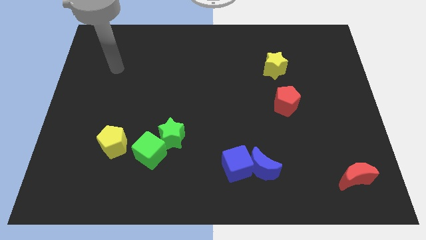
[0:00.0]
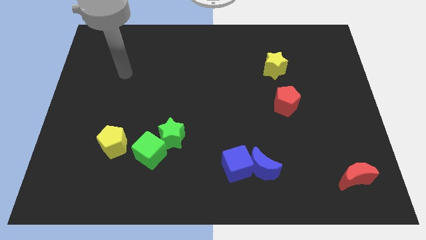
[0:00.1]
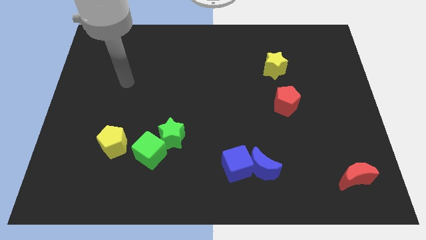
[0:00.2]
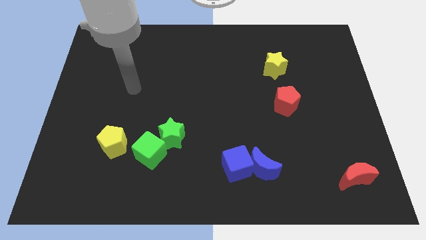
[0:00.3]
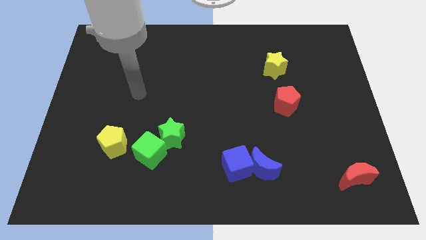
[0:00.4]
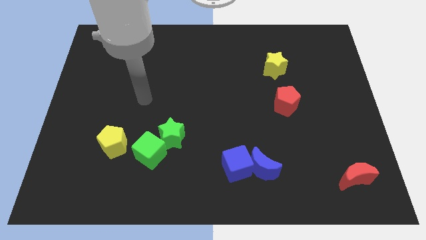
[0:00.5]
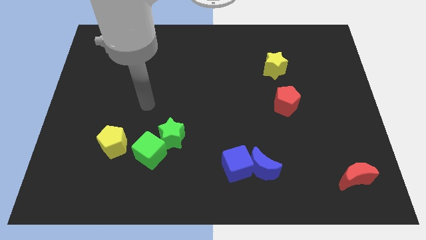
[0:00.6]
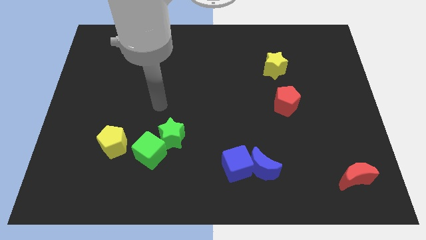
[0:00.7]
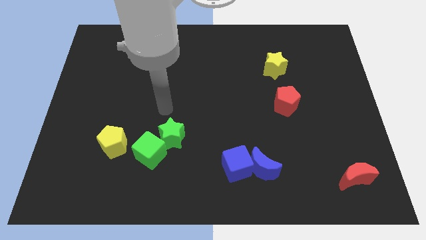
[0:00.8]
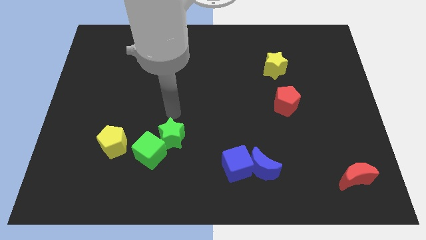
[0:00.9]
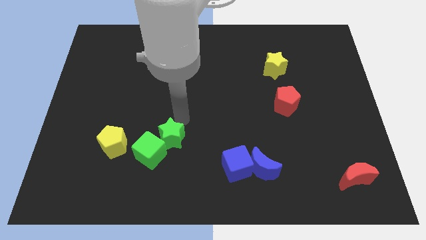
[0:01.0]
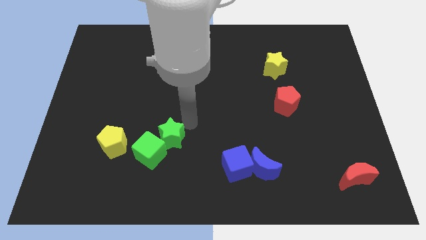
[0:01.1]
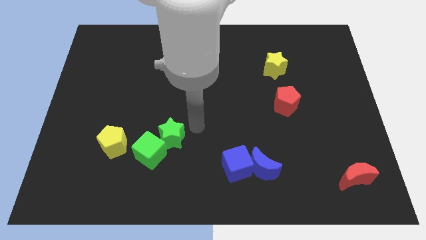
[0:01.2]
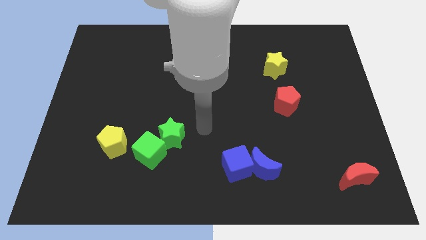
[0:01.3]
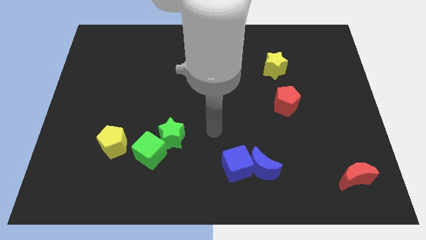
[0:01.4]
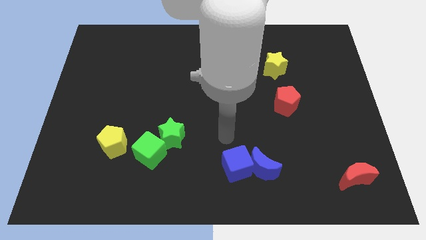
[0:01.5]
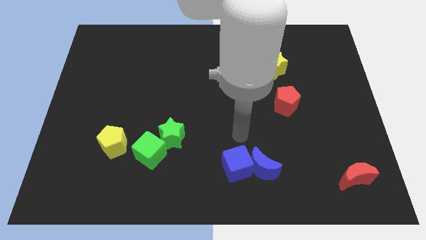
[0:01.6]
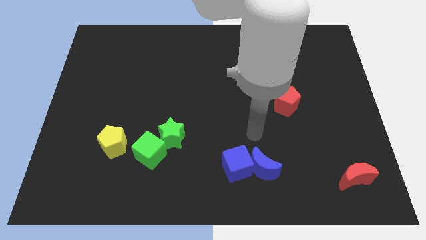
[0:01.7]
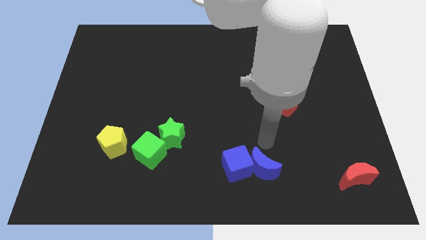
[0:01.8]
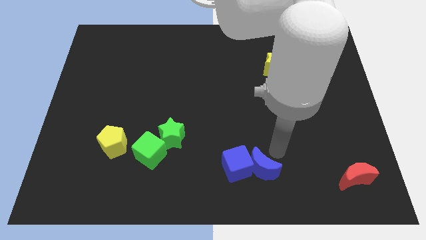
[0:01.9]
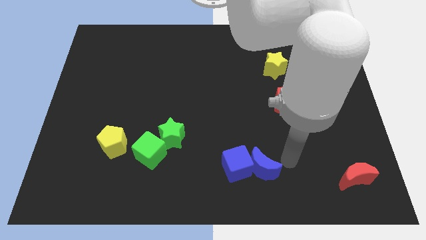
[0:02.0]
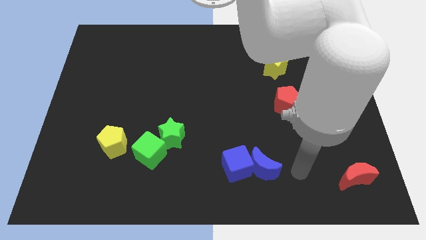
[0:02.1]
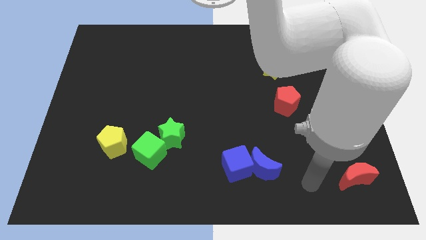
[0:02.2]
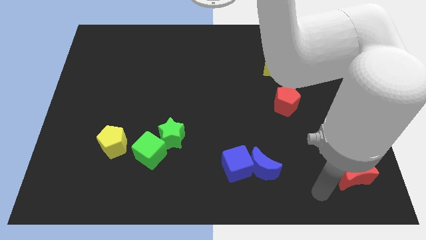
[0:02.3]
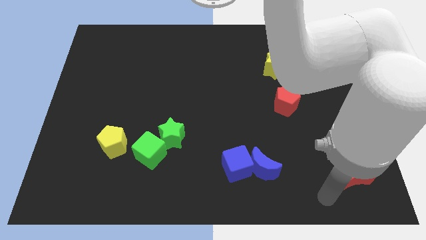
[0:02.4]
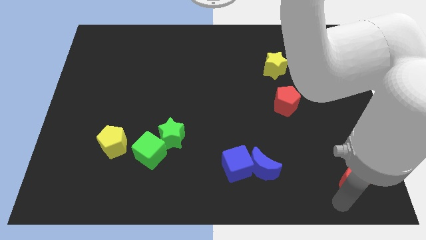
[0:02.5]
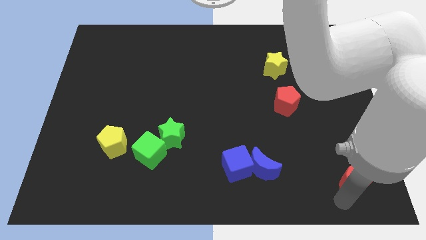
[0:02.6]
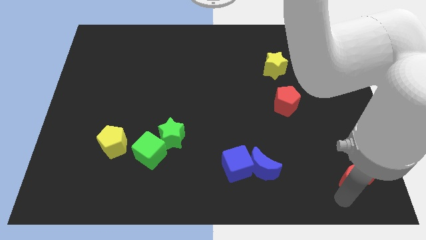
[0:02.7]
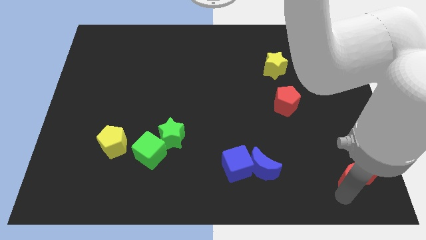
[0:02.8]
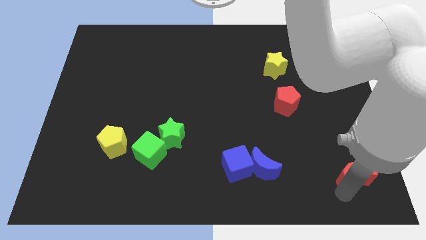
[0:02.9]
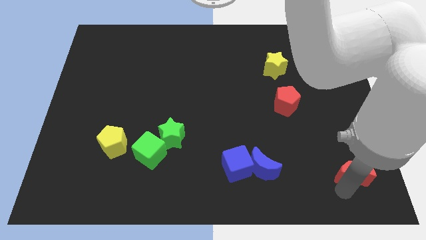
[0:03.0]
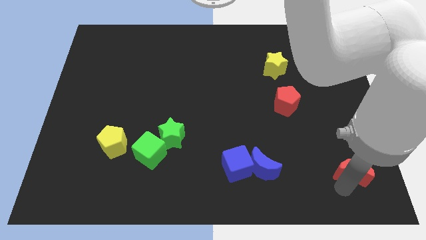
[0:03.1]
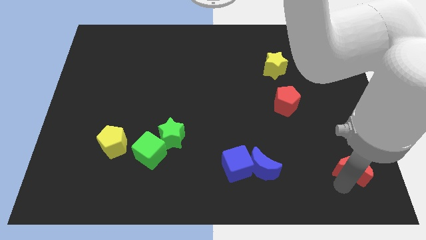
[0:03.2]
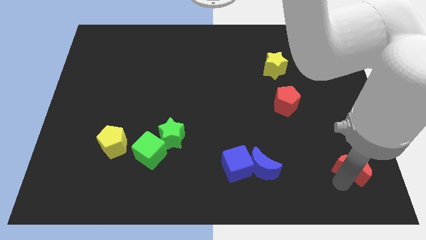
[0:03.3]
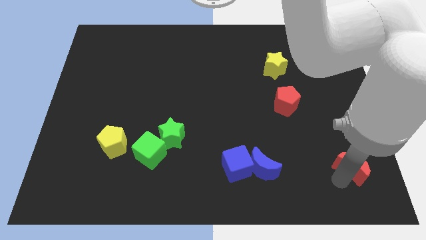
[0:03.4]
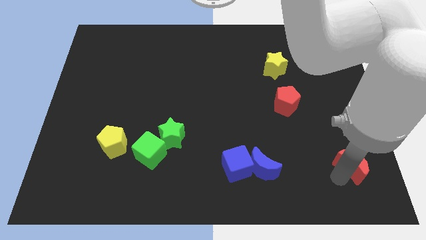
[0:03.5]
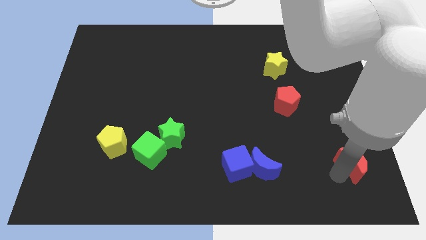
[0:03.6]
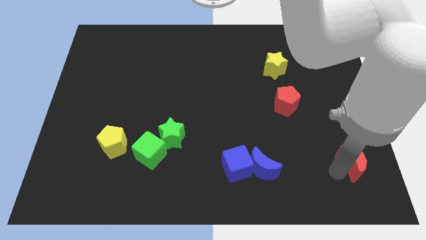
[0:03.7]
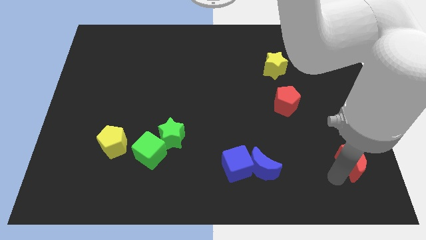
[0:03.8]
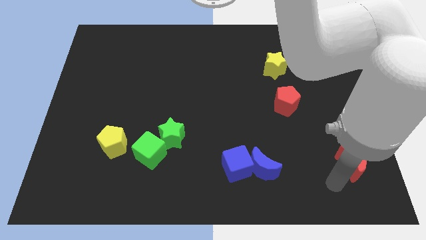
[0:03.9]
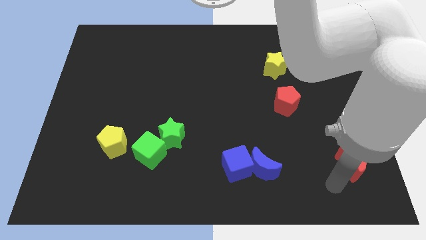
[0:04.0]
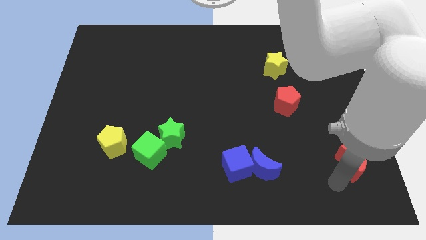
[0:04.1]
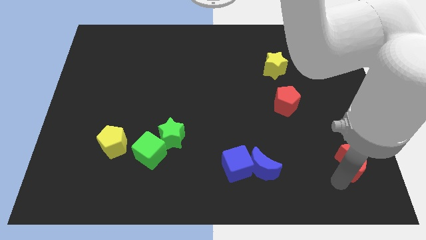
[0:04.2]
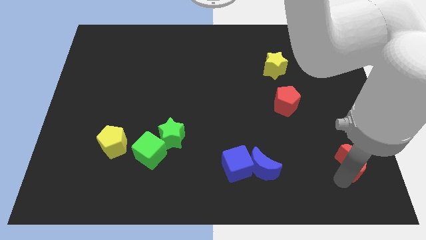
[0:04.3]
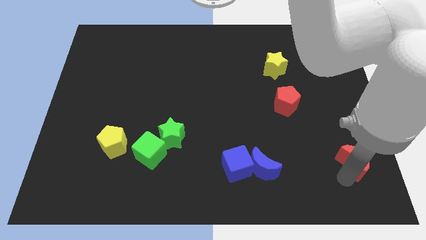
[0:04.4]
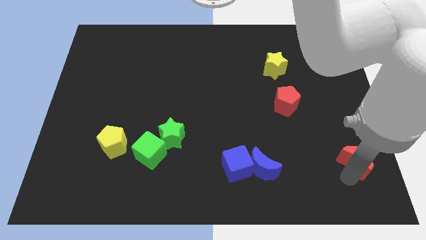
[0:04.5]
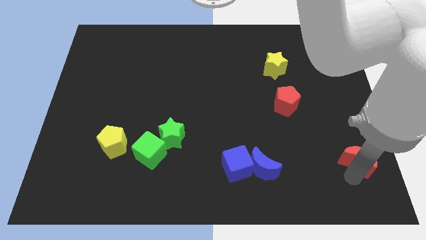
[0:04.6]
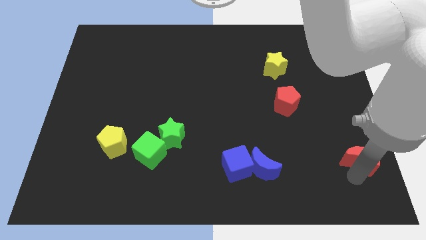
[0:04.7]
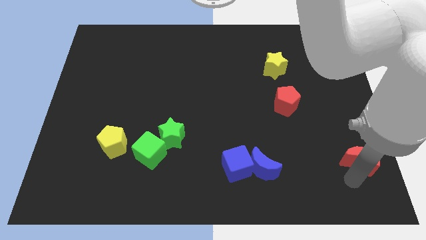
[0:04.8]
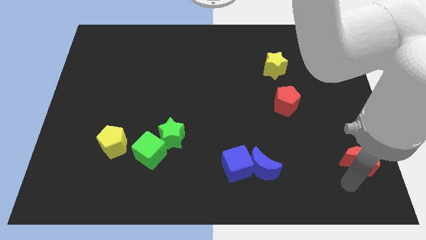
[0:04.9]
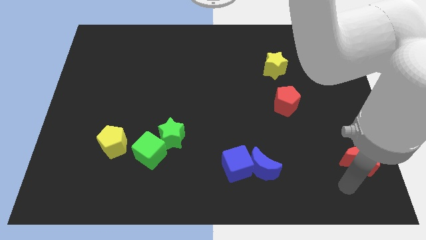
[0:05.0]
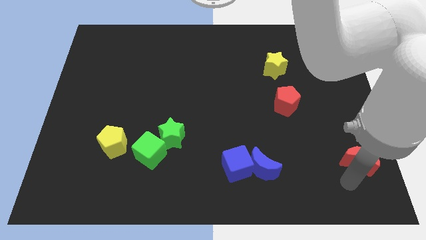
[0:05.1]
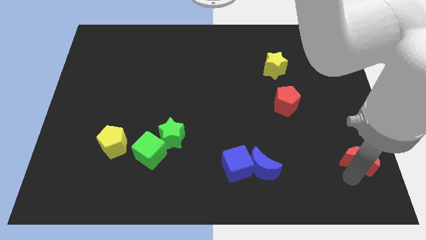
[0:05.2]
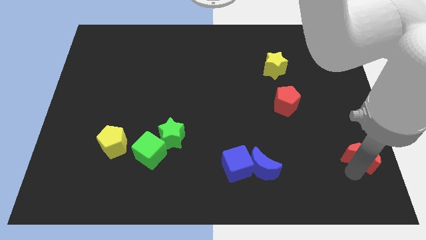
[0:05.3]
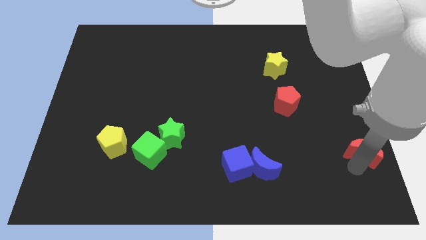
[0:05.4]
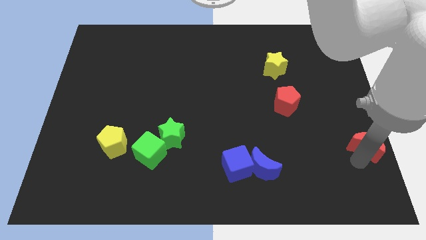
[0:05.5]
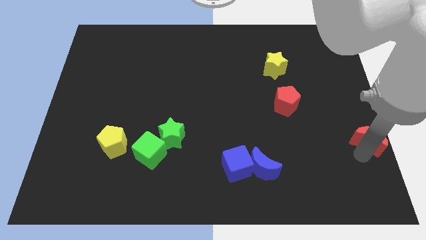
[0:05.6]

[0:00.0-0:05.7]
put the red moon to the right side
